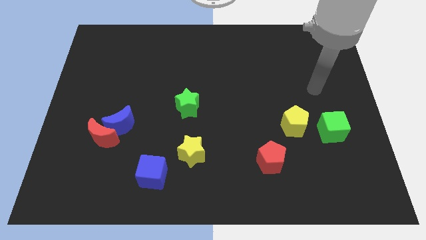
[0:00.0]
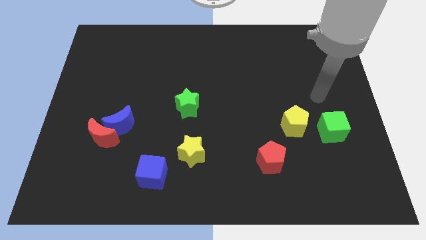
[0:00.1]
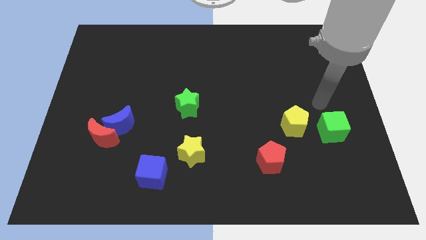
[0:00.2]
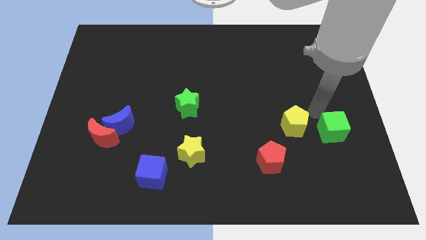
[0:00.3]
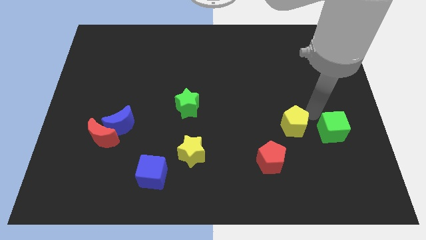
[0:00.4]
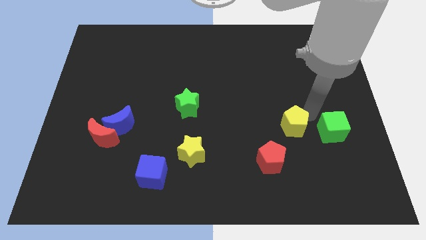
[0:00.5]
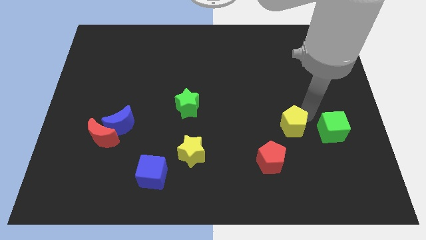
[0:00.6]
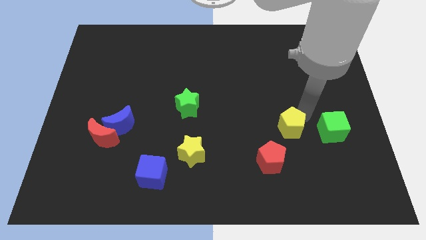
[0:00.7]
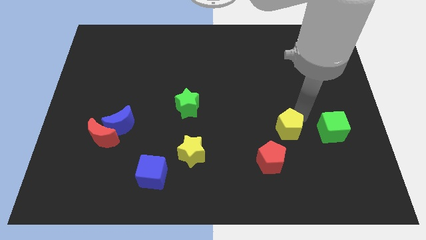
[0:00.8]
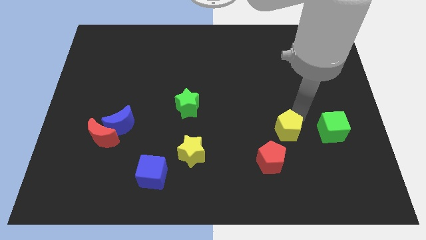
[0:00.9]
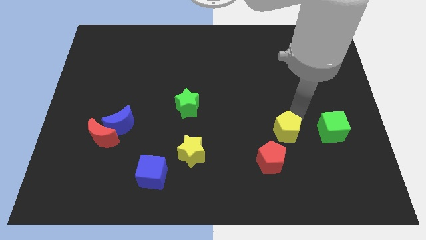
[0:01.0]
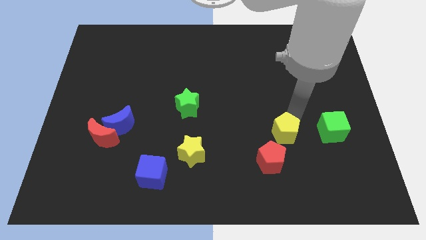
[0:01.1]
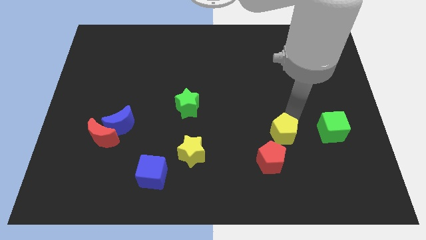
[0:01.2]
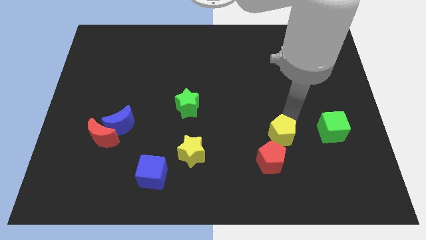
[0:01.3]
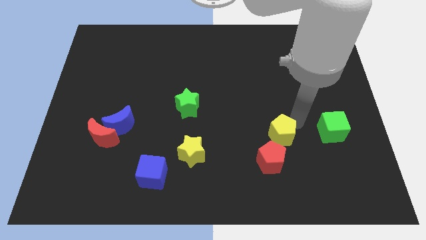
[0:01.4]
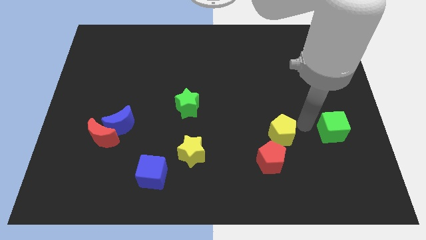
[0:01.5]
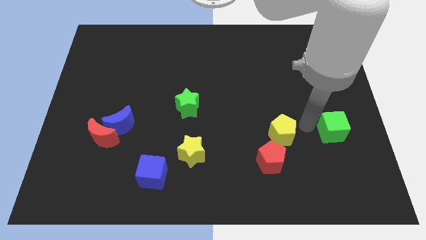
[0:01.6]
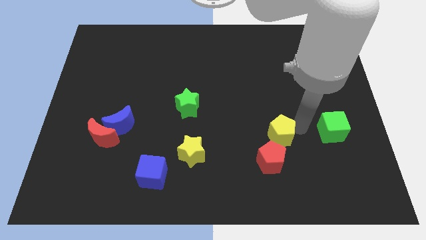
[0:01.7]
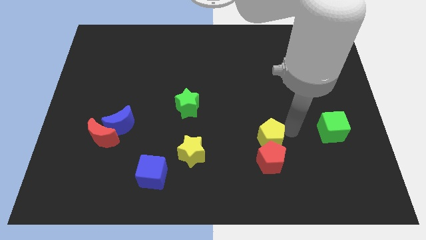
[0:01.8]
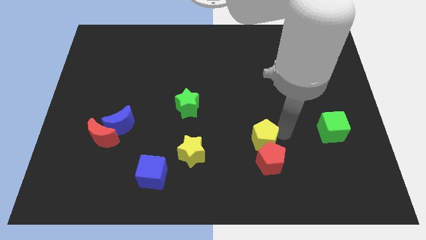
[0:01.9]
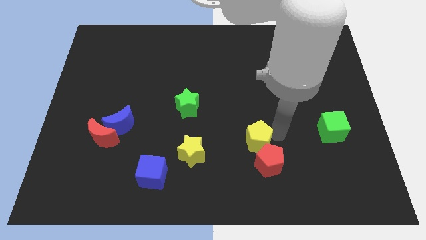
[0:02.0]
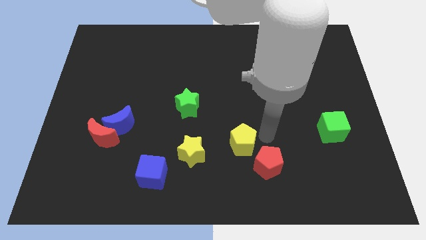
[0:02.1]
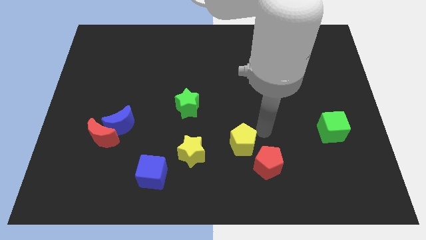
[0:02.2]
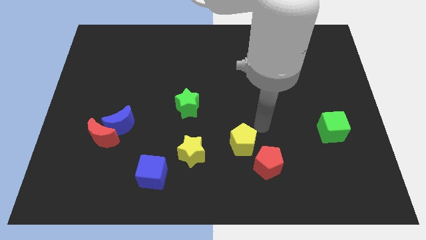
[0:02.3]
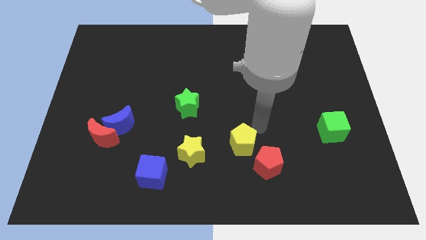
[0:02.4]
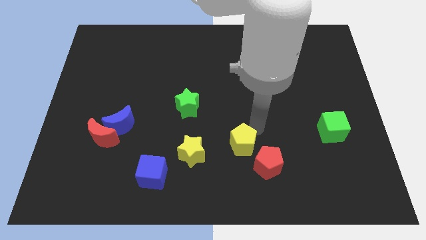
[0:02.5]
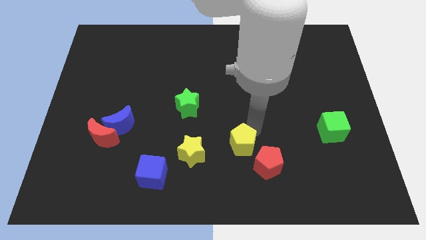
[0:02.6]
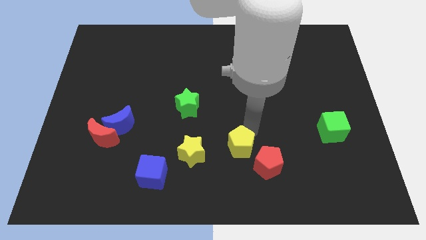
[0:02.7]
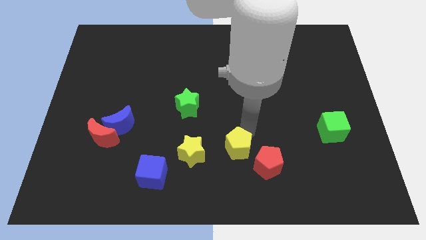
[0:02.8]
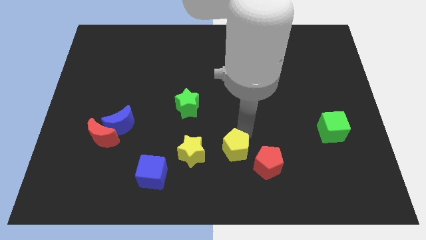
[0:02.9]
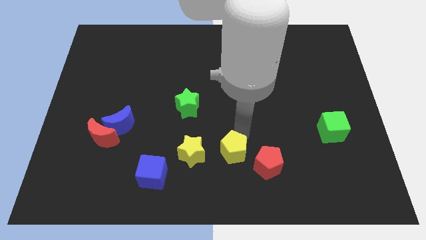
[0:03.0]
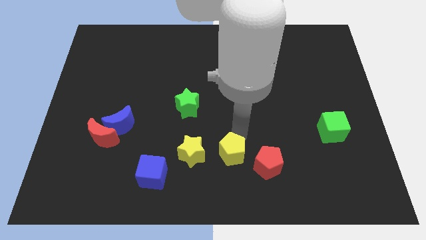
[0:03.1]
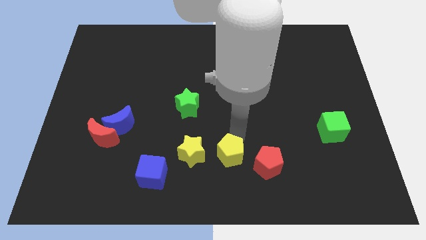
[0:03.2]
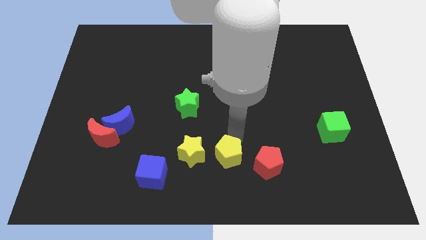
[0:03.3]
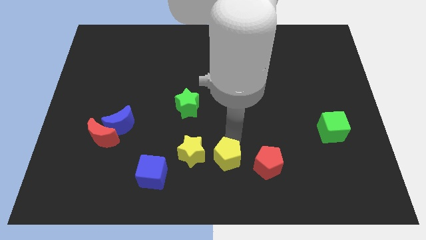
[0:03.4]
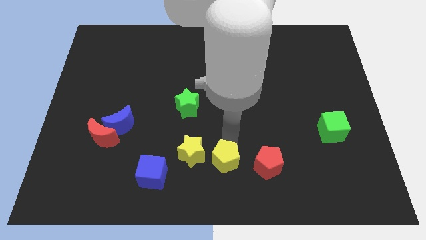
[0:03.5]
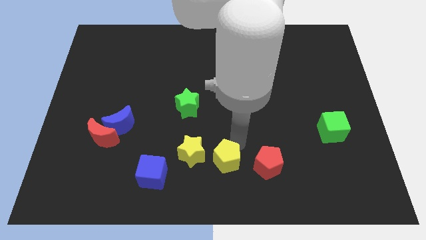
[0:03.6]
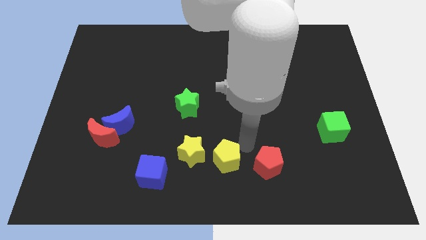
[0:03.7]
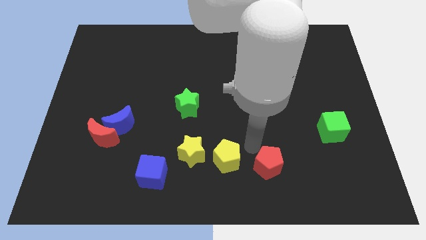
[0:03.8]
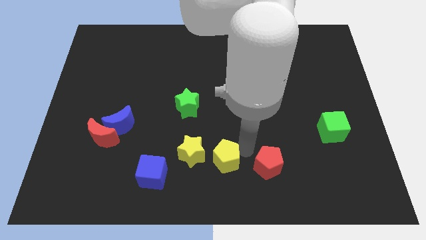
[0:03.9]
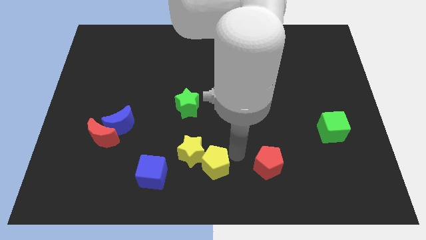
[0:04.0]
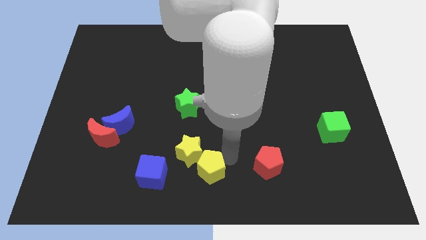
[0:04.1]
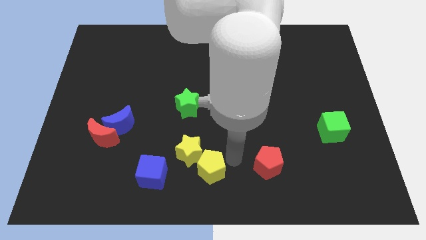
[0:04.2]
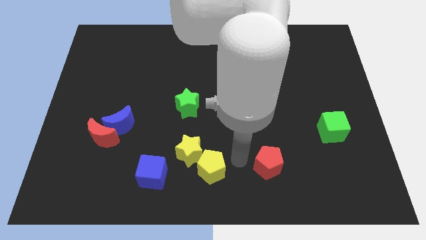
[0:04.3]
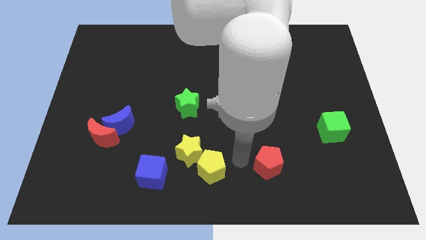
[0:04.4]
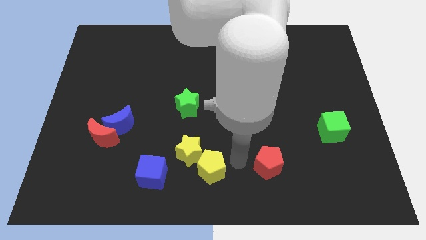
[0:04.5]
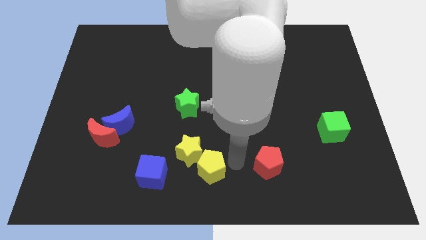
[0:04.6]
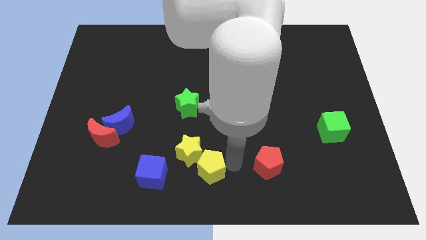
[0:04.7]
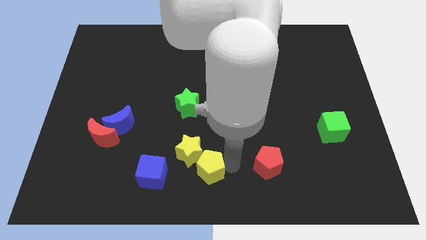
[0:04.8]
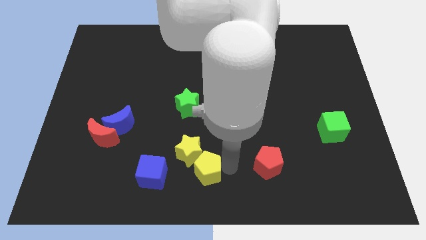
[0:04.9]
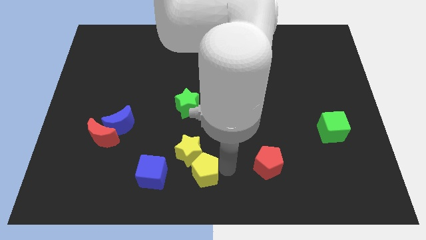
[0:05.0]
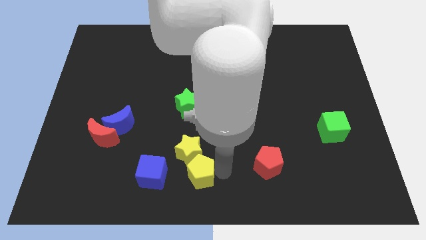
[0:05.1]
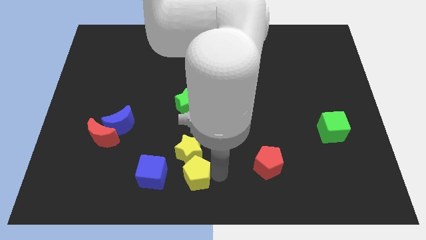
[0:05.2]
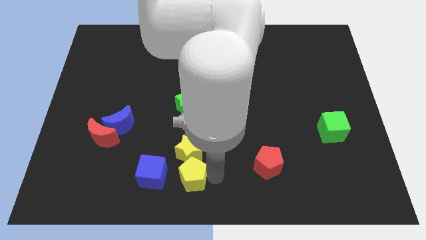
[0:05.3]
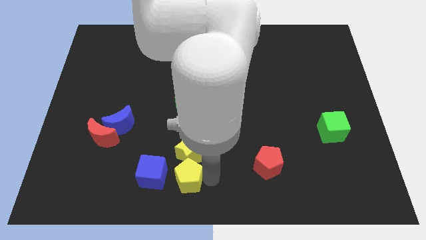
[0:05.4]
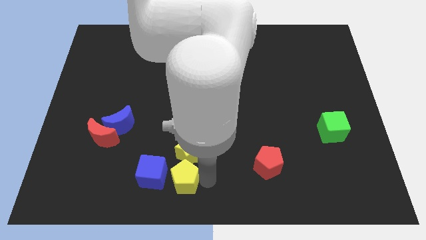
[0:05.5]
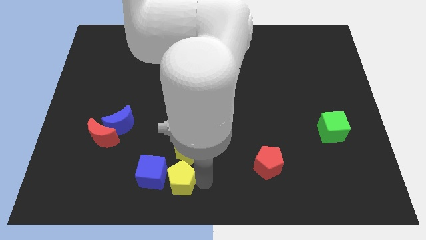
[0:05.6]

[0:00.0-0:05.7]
push the yellow pentagon close to the blue cube

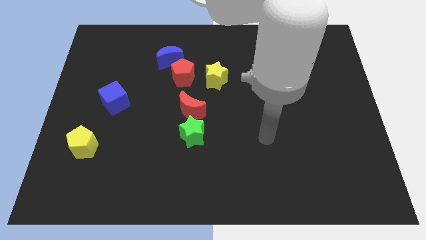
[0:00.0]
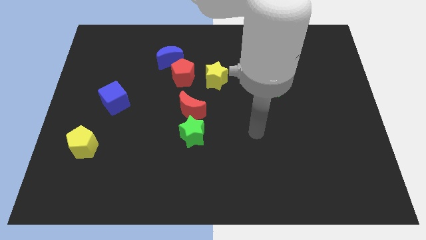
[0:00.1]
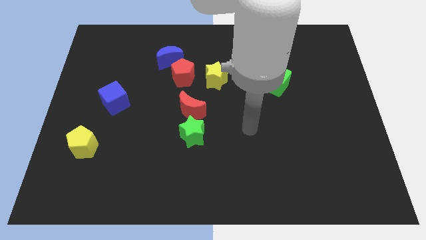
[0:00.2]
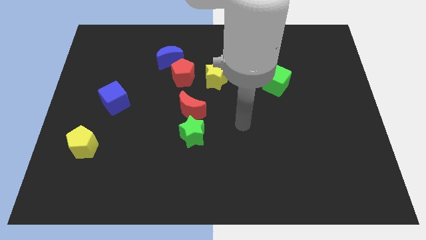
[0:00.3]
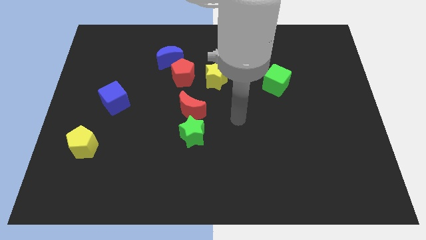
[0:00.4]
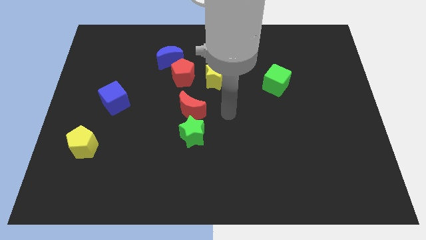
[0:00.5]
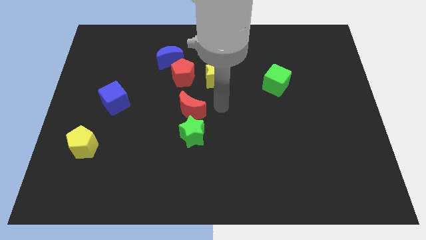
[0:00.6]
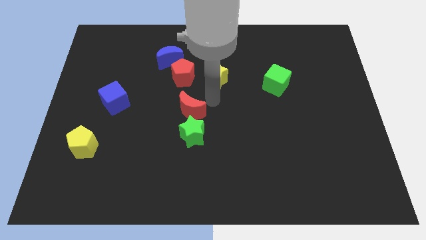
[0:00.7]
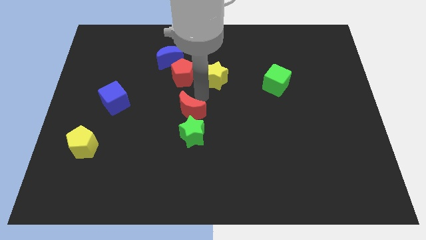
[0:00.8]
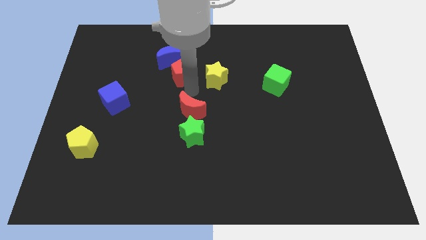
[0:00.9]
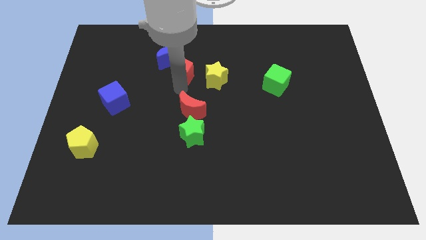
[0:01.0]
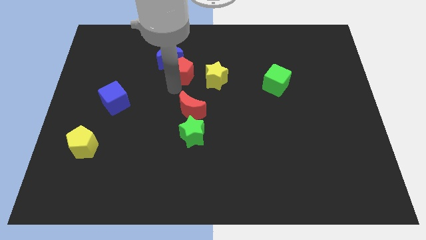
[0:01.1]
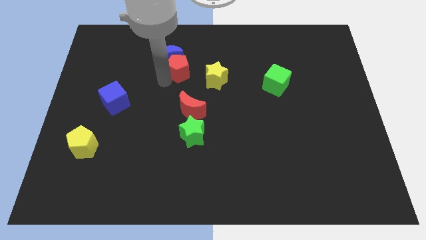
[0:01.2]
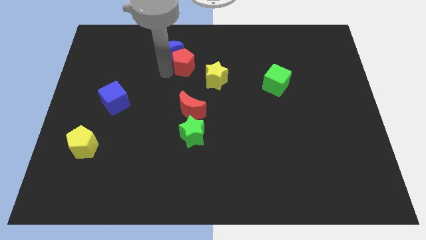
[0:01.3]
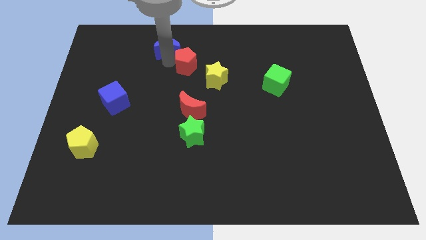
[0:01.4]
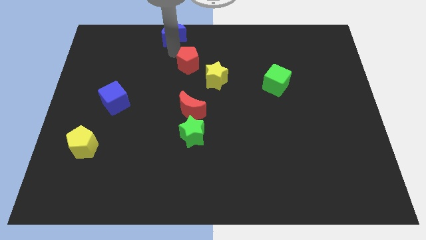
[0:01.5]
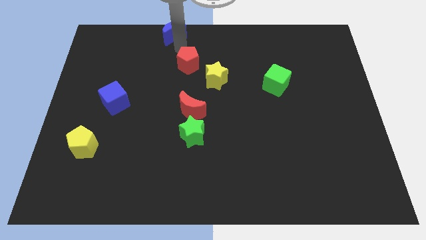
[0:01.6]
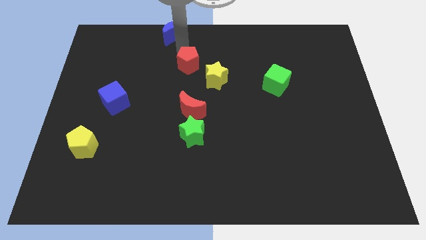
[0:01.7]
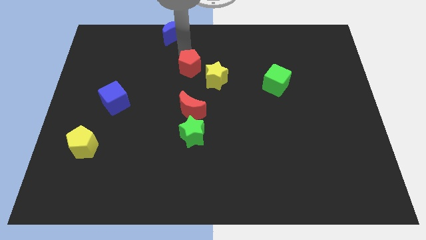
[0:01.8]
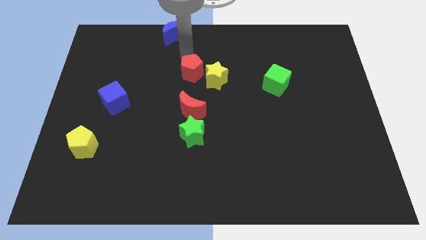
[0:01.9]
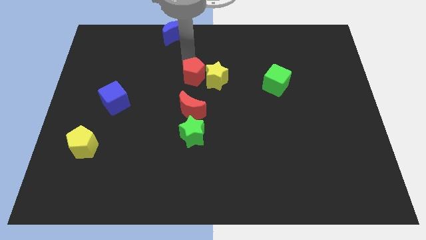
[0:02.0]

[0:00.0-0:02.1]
put the red pentagon to the yellow star

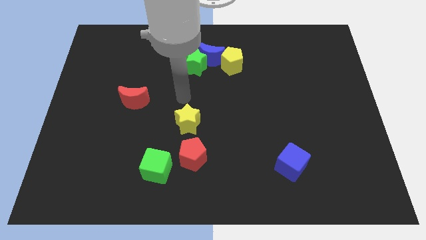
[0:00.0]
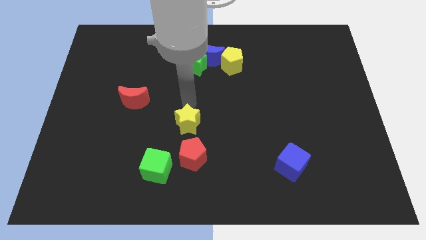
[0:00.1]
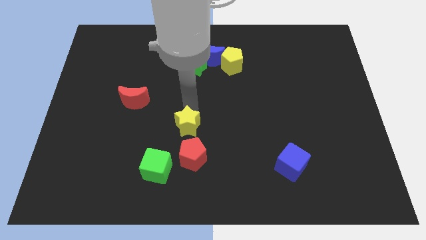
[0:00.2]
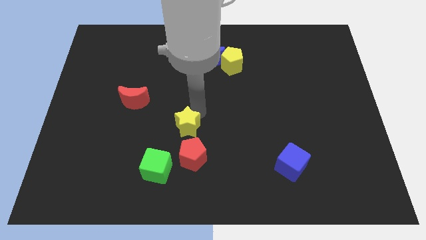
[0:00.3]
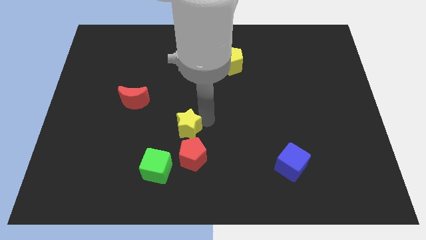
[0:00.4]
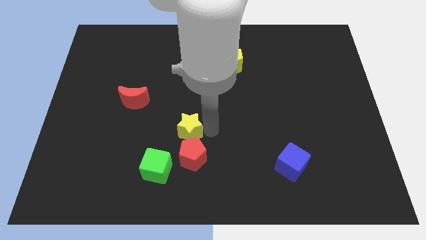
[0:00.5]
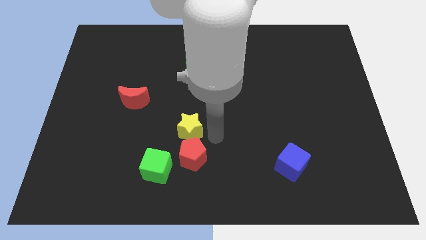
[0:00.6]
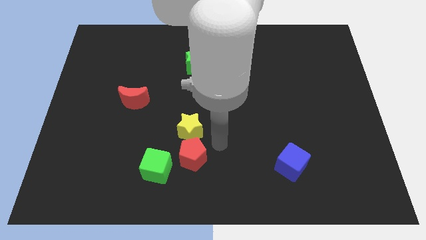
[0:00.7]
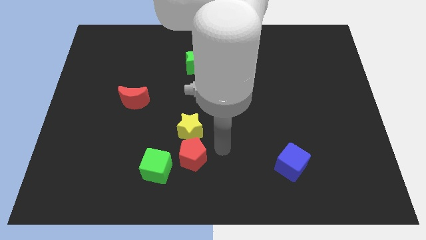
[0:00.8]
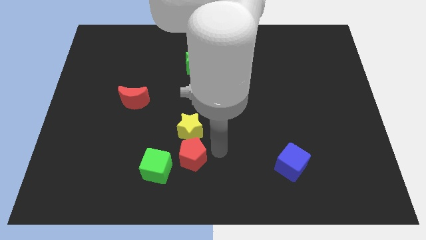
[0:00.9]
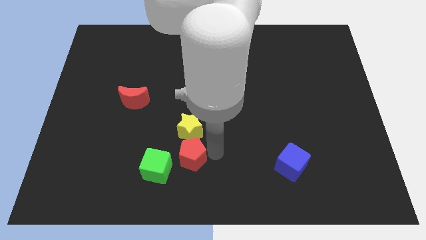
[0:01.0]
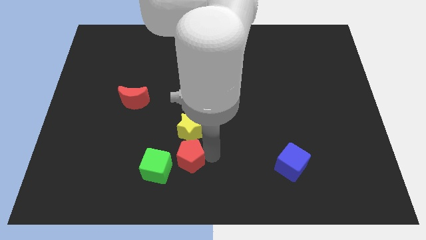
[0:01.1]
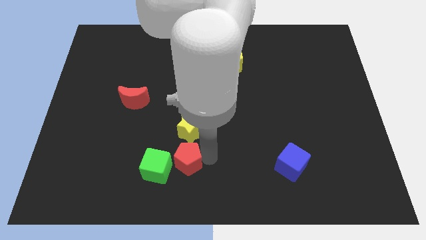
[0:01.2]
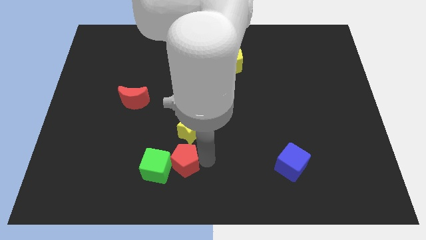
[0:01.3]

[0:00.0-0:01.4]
slide the red pentagon to the green cube
